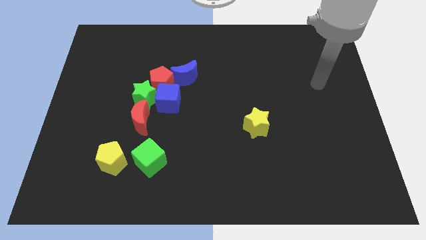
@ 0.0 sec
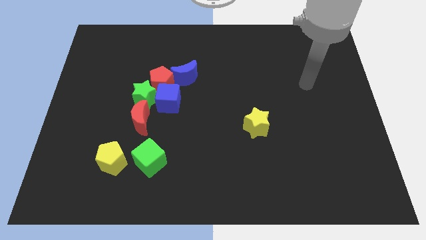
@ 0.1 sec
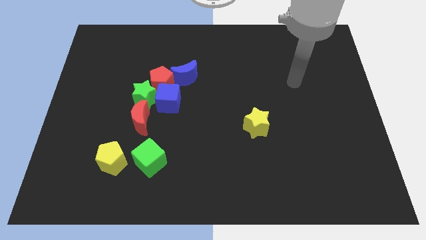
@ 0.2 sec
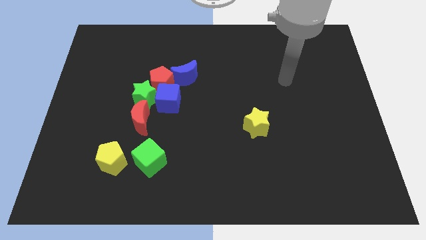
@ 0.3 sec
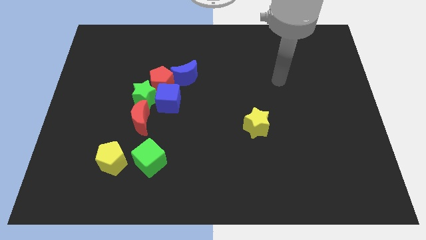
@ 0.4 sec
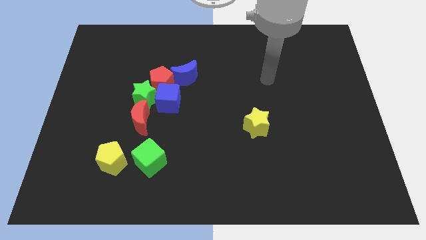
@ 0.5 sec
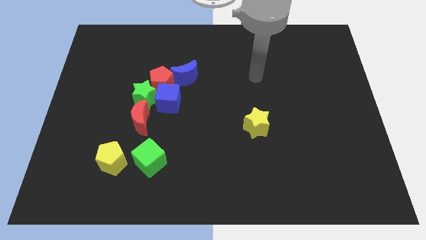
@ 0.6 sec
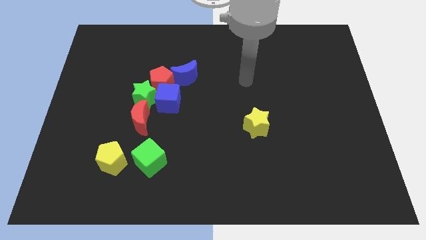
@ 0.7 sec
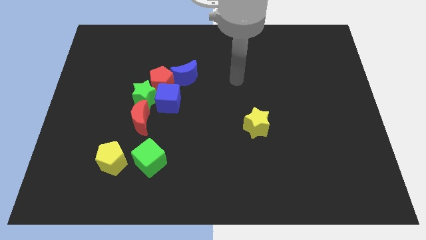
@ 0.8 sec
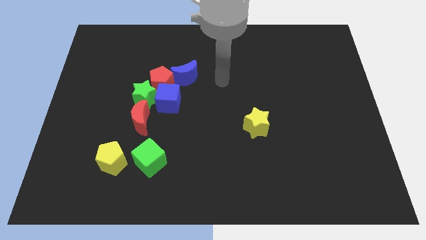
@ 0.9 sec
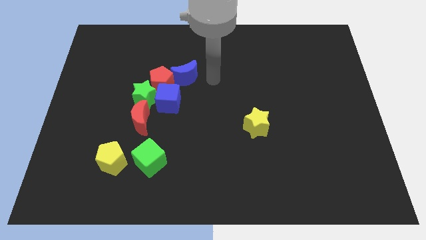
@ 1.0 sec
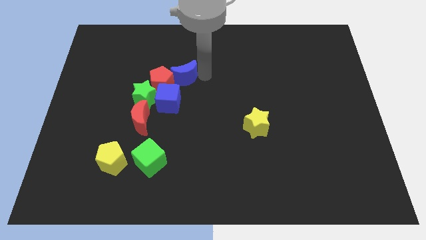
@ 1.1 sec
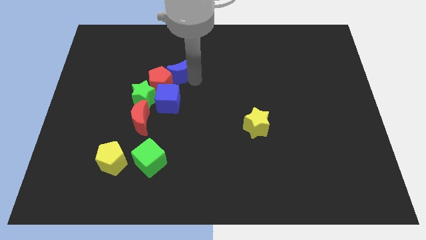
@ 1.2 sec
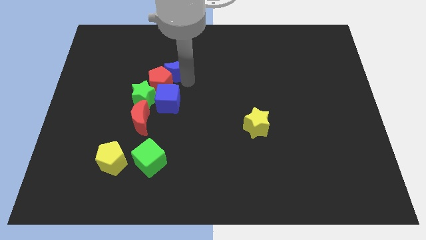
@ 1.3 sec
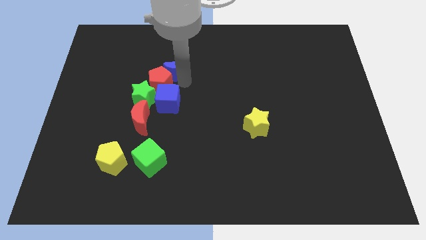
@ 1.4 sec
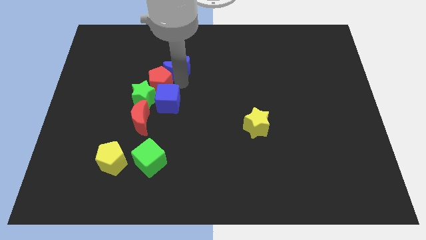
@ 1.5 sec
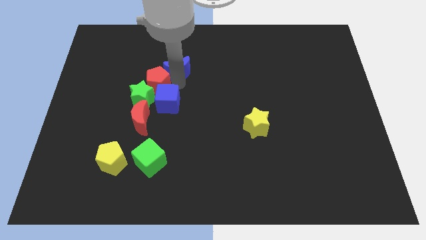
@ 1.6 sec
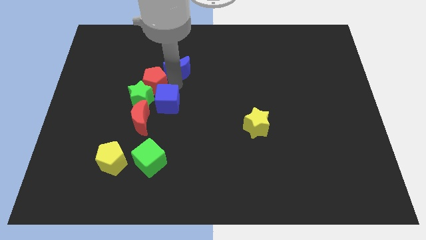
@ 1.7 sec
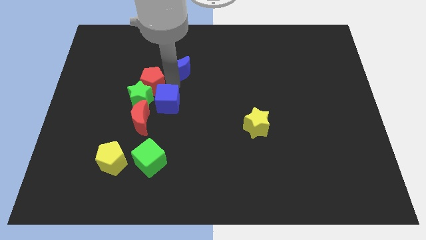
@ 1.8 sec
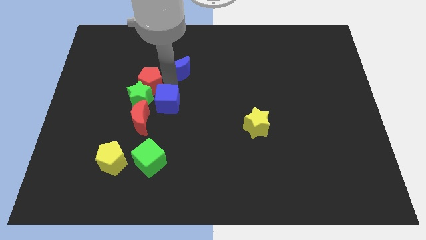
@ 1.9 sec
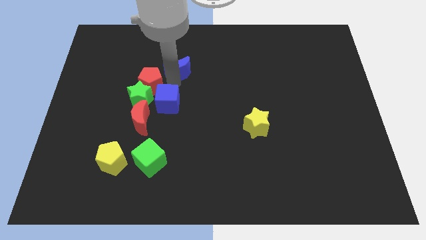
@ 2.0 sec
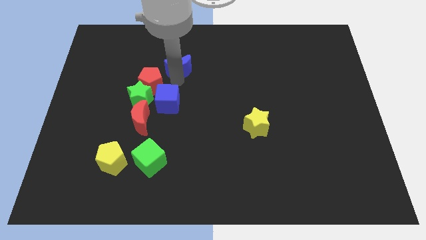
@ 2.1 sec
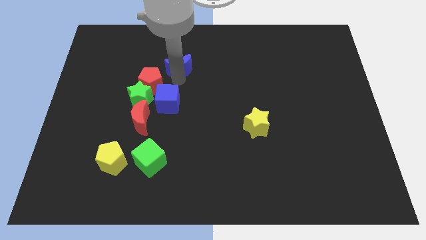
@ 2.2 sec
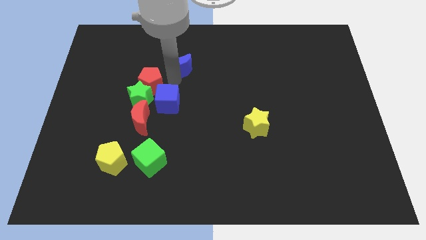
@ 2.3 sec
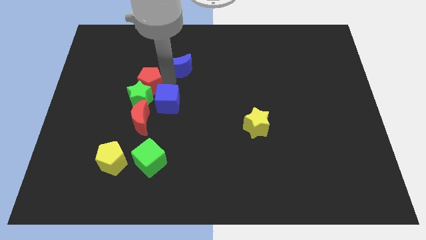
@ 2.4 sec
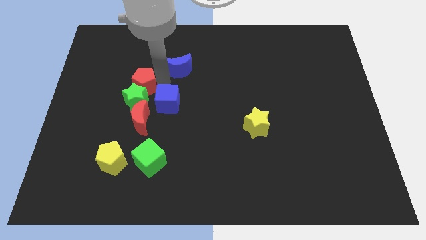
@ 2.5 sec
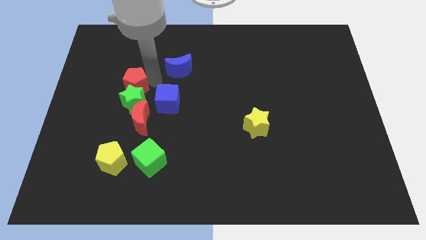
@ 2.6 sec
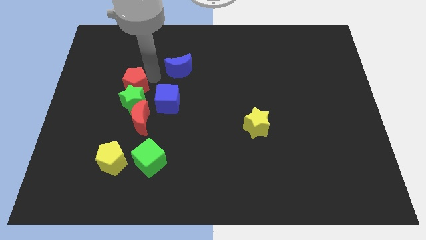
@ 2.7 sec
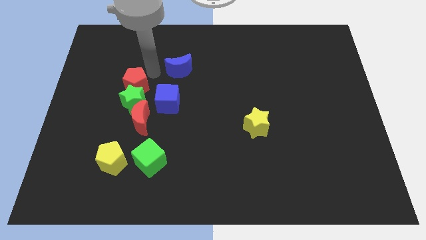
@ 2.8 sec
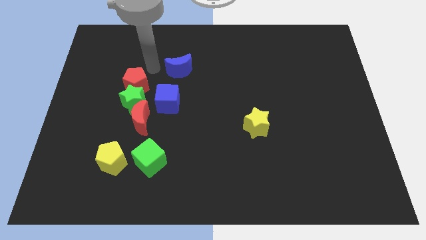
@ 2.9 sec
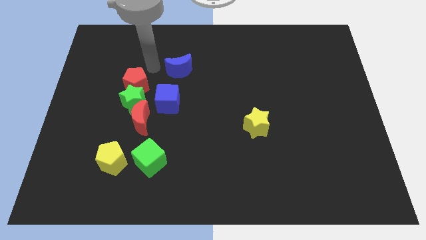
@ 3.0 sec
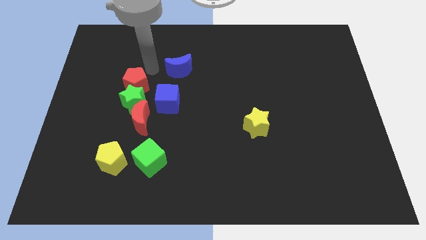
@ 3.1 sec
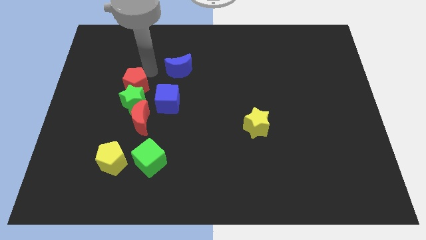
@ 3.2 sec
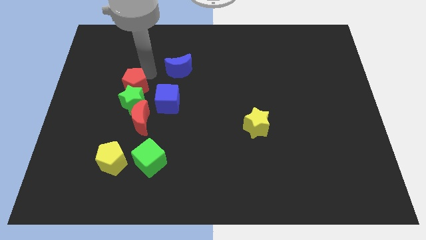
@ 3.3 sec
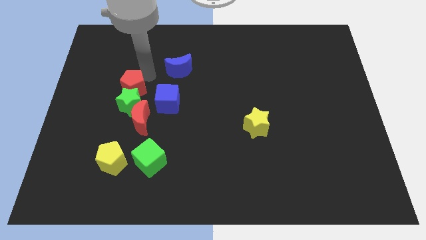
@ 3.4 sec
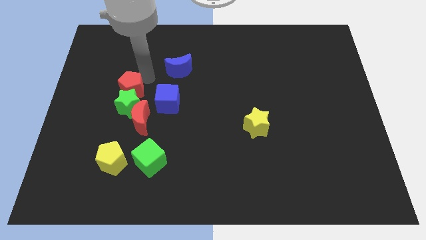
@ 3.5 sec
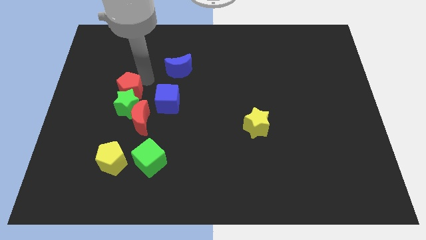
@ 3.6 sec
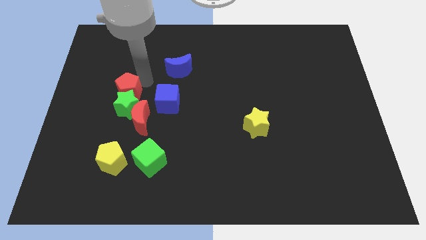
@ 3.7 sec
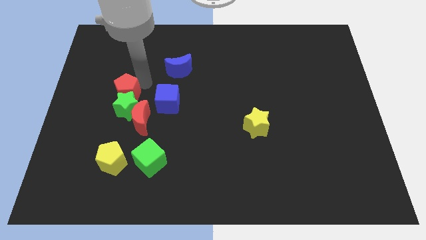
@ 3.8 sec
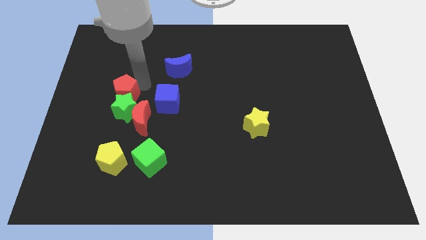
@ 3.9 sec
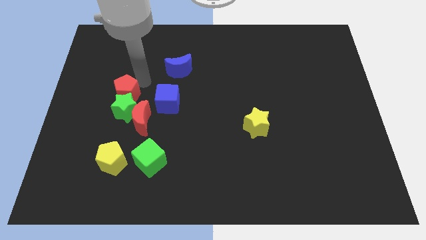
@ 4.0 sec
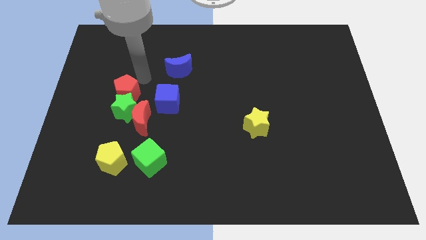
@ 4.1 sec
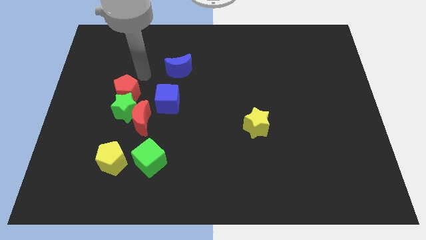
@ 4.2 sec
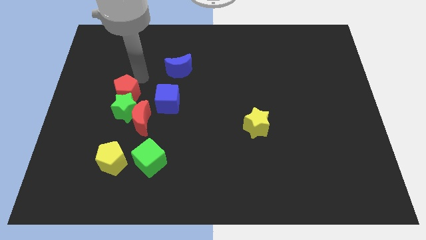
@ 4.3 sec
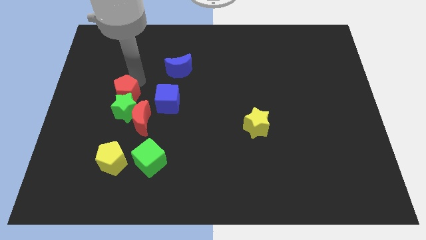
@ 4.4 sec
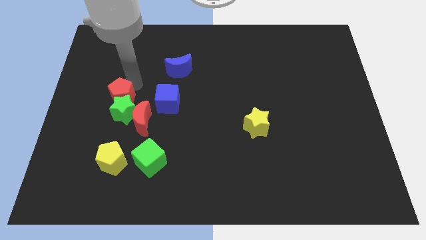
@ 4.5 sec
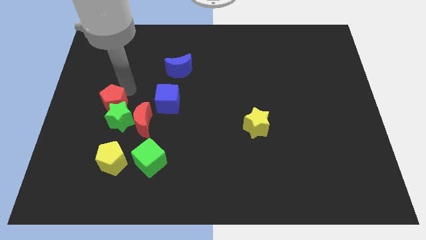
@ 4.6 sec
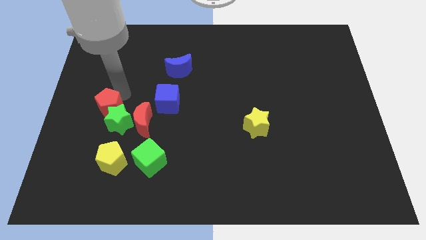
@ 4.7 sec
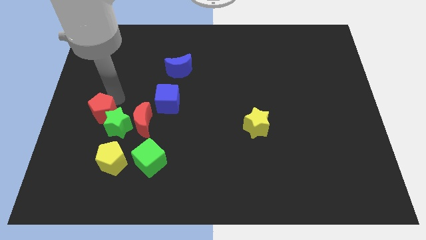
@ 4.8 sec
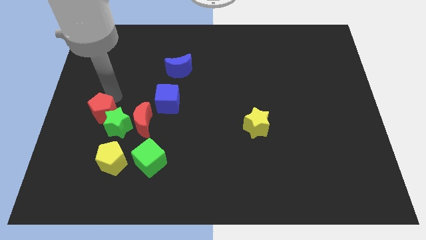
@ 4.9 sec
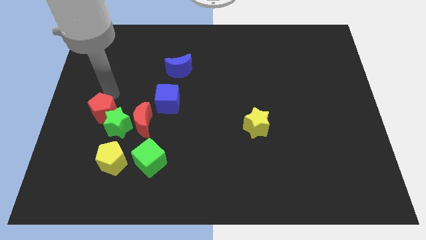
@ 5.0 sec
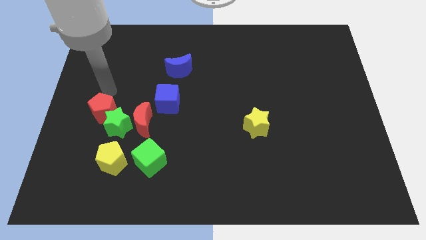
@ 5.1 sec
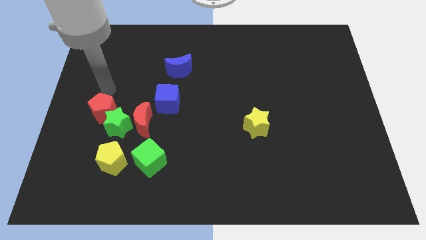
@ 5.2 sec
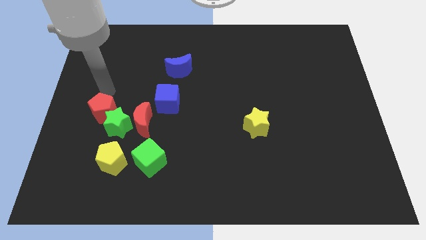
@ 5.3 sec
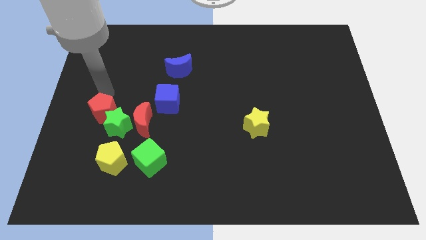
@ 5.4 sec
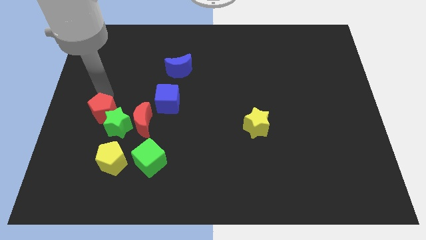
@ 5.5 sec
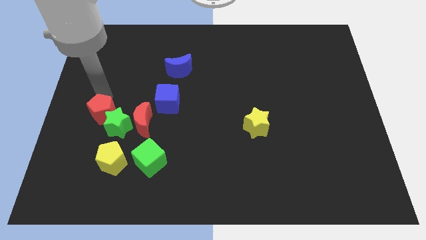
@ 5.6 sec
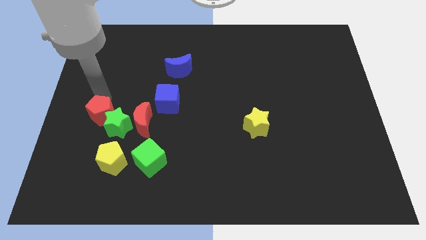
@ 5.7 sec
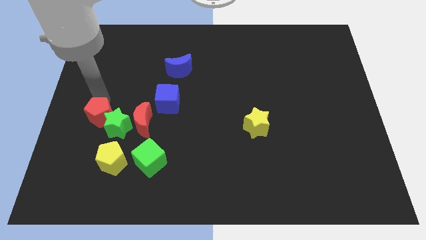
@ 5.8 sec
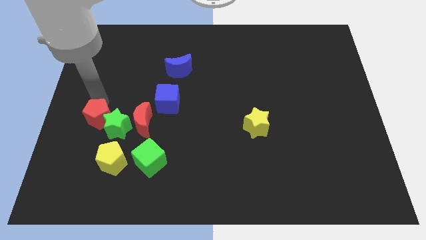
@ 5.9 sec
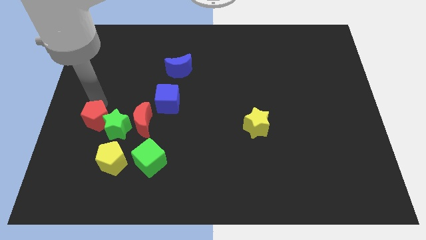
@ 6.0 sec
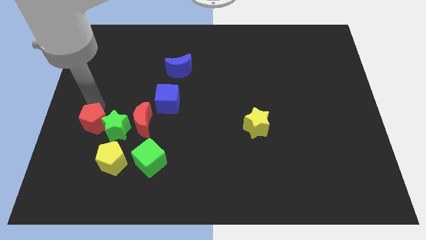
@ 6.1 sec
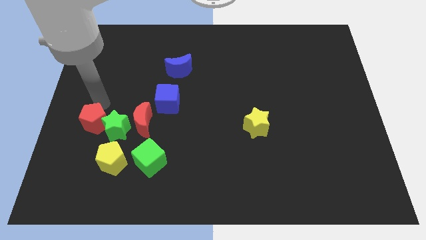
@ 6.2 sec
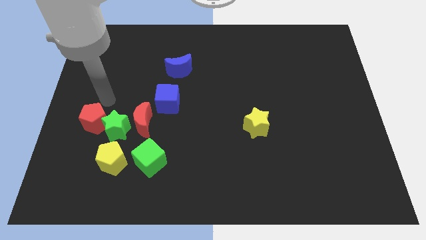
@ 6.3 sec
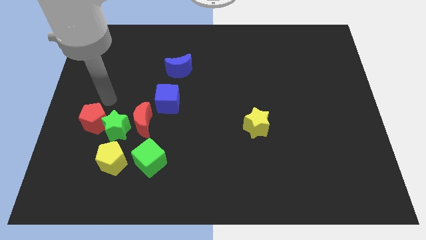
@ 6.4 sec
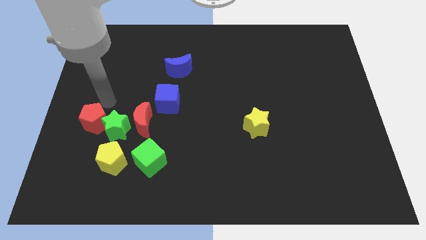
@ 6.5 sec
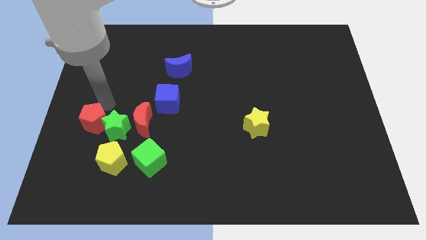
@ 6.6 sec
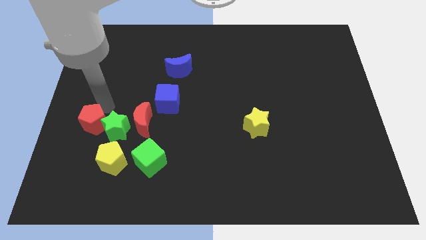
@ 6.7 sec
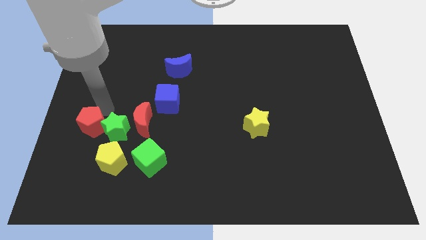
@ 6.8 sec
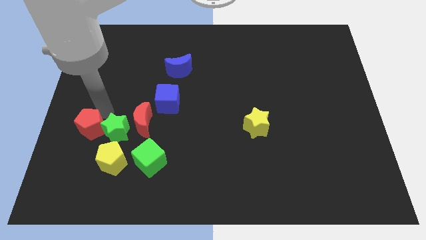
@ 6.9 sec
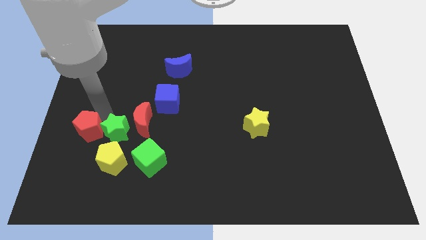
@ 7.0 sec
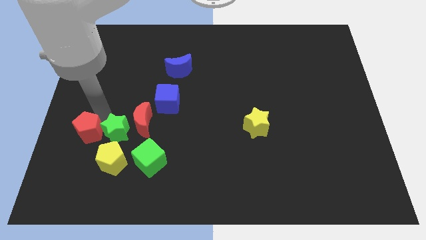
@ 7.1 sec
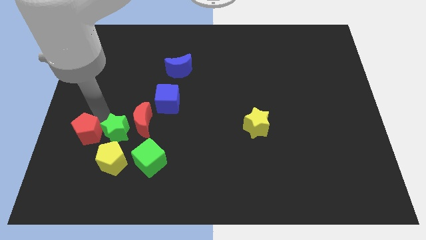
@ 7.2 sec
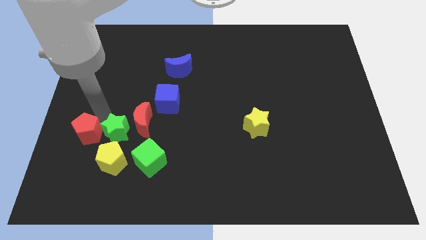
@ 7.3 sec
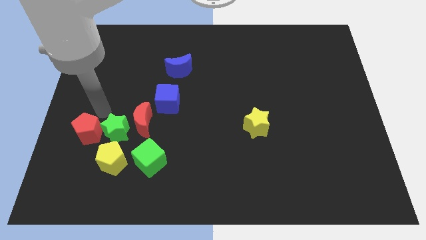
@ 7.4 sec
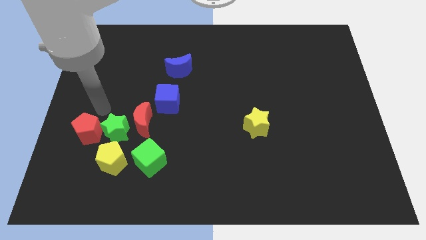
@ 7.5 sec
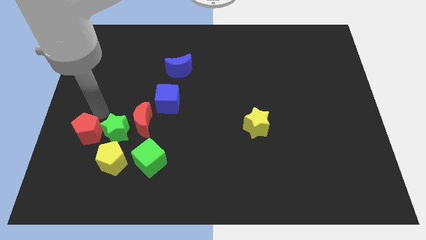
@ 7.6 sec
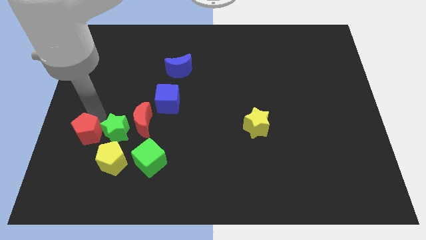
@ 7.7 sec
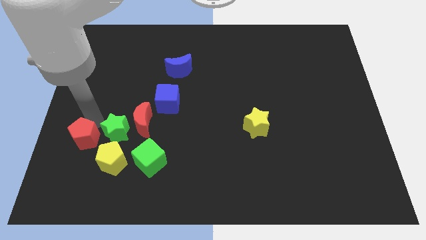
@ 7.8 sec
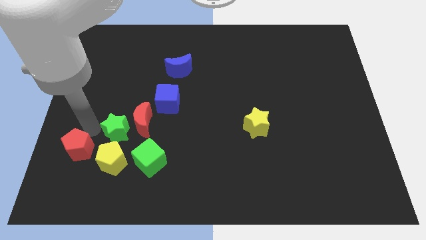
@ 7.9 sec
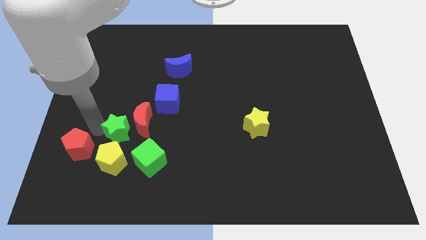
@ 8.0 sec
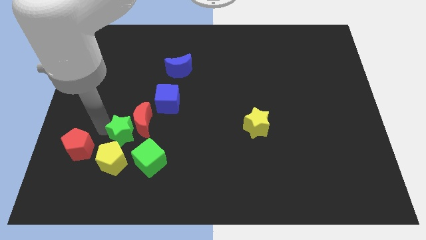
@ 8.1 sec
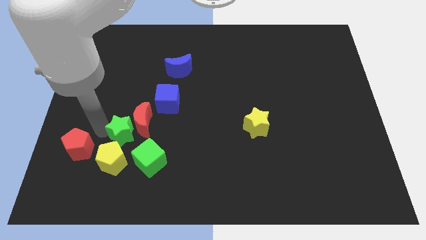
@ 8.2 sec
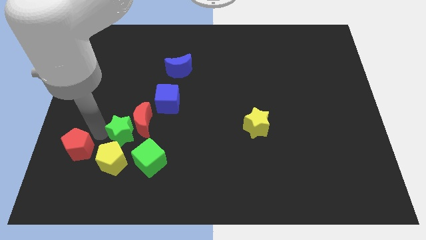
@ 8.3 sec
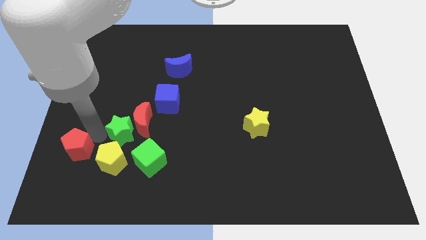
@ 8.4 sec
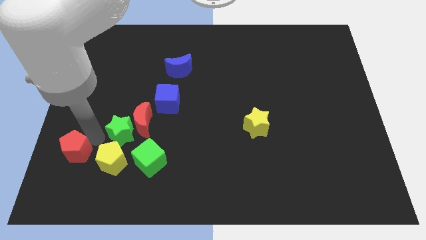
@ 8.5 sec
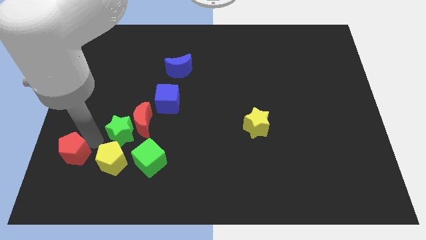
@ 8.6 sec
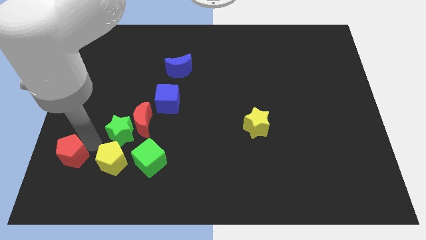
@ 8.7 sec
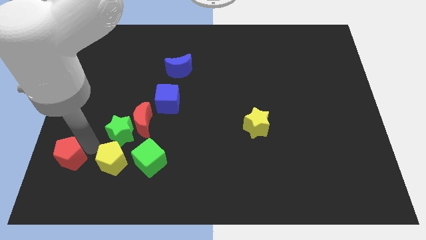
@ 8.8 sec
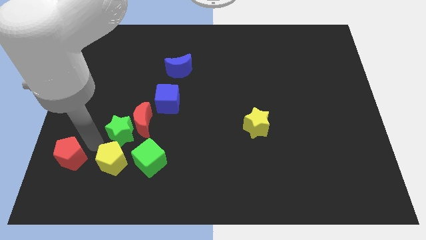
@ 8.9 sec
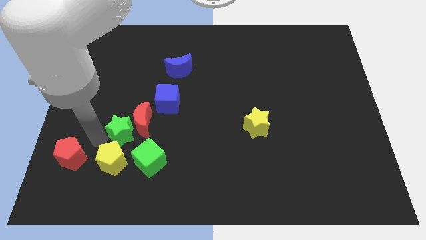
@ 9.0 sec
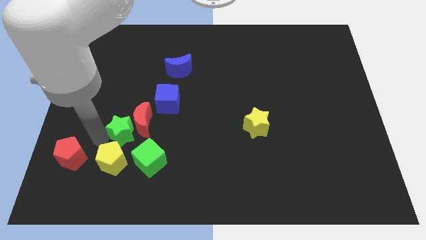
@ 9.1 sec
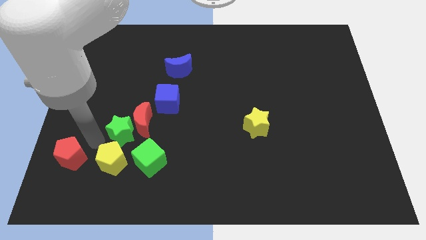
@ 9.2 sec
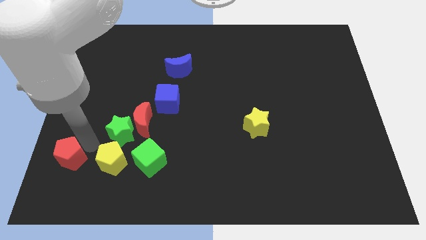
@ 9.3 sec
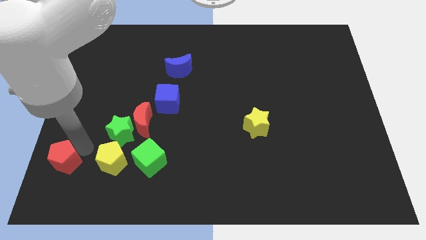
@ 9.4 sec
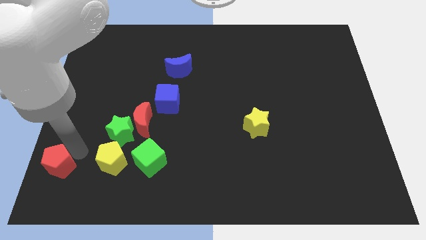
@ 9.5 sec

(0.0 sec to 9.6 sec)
slide the red pentagon to the bottom left of the board
